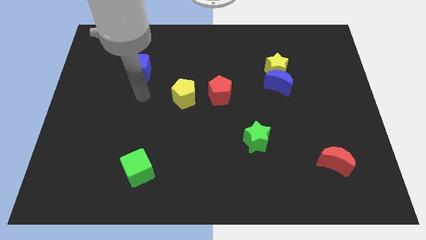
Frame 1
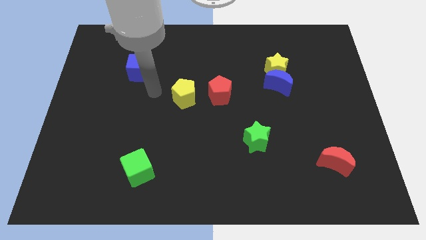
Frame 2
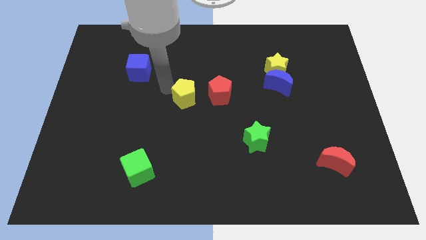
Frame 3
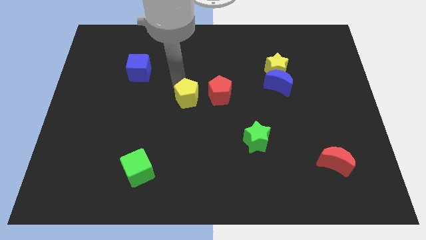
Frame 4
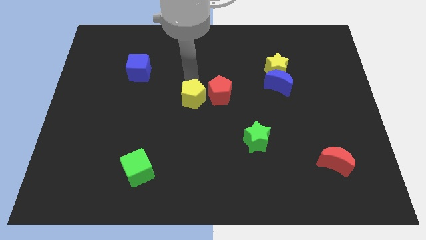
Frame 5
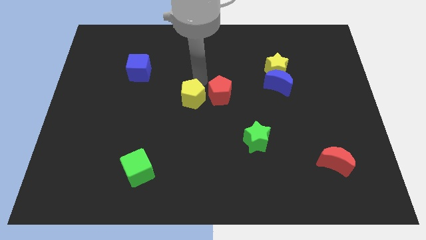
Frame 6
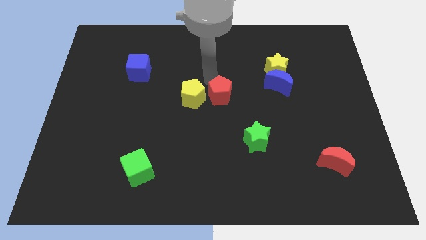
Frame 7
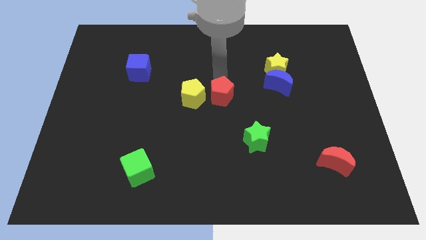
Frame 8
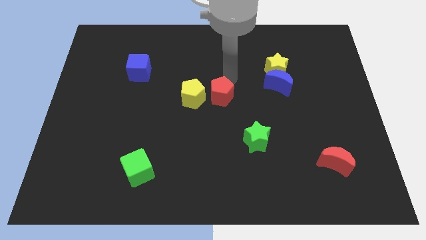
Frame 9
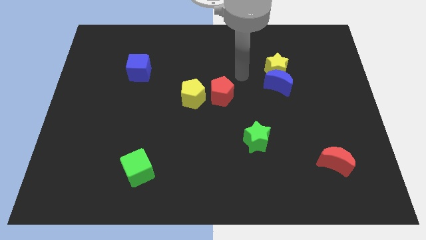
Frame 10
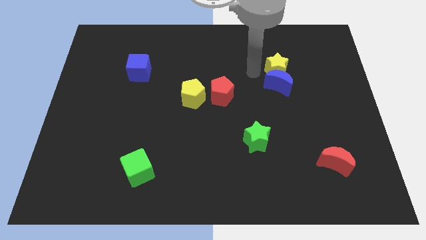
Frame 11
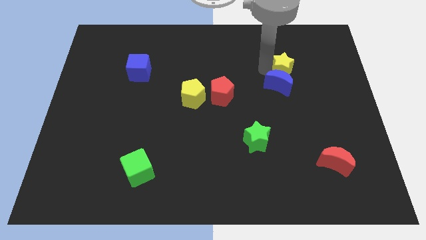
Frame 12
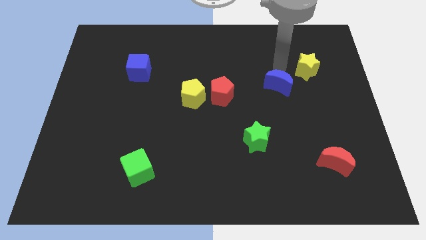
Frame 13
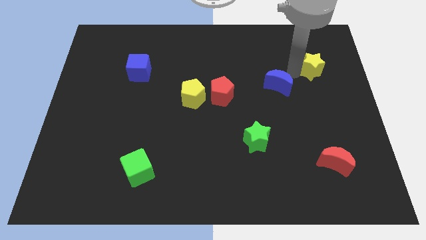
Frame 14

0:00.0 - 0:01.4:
pull the blue moon apart from the yellow star

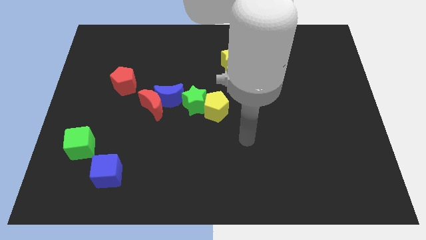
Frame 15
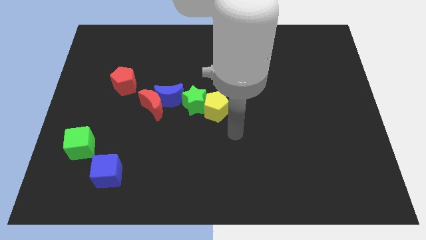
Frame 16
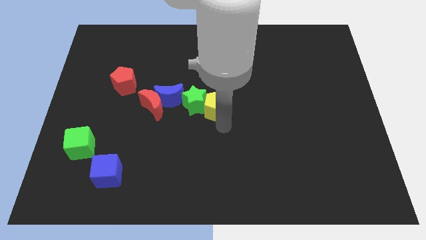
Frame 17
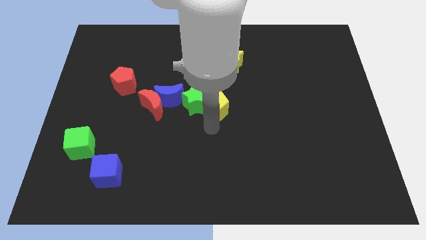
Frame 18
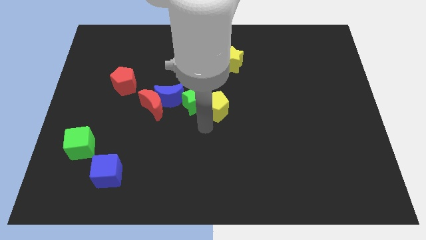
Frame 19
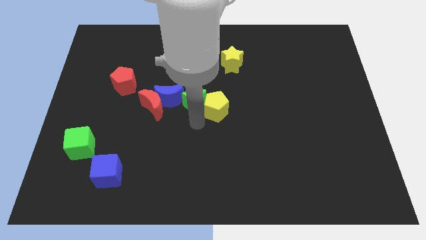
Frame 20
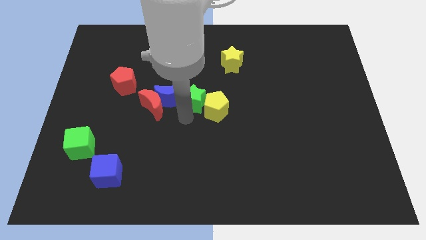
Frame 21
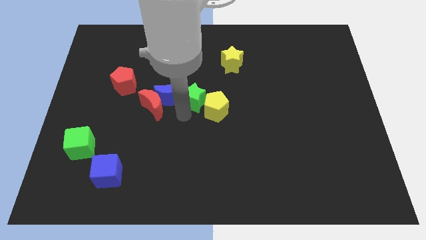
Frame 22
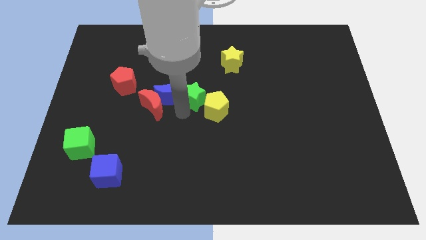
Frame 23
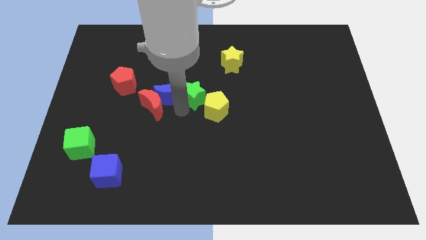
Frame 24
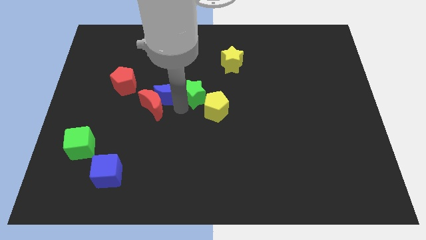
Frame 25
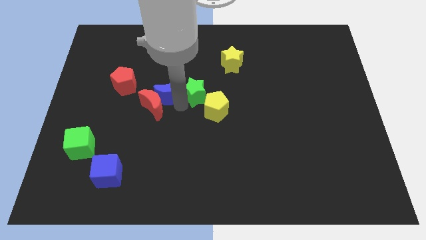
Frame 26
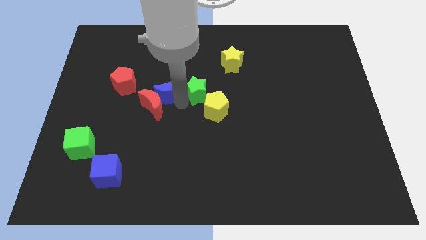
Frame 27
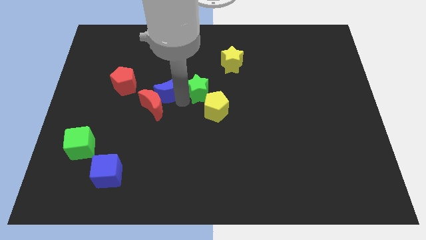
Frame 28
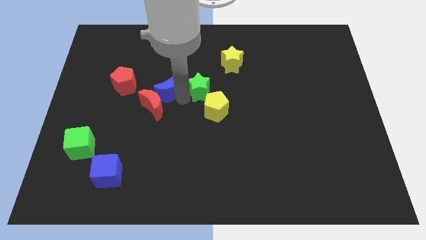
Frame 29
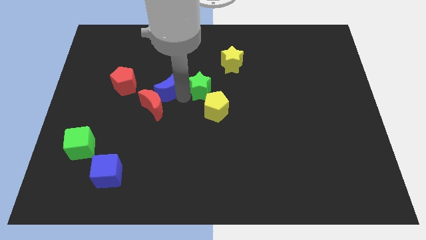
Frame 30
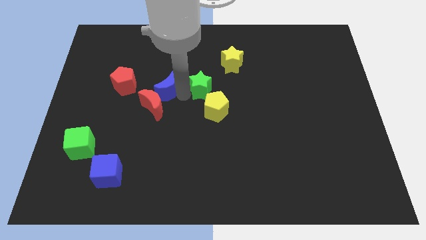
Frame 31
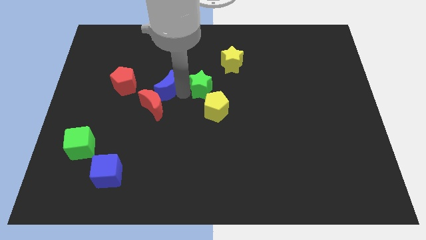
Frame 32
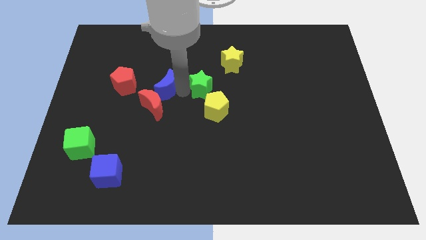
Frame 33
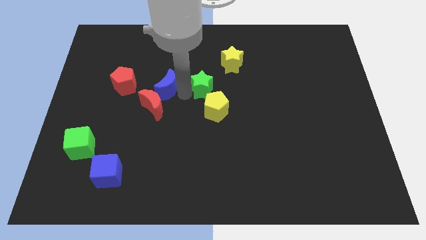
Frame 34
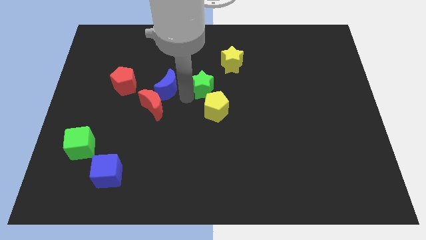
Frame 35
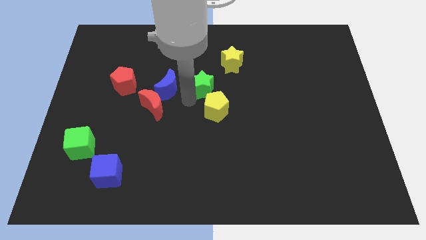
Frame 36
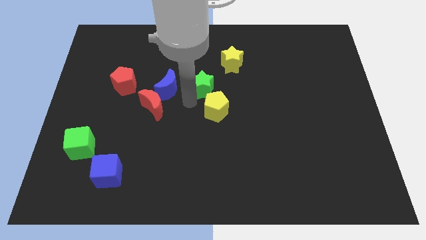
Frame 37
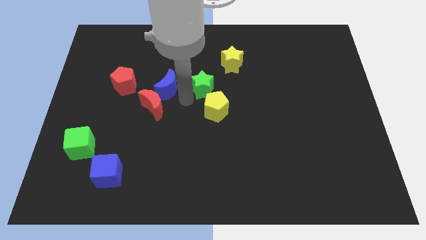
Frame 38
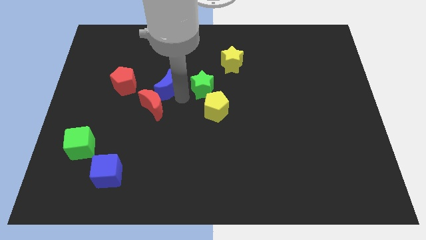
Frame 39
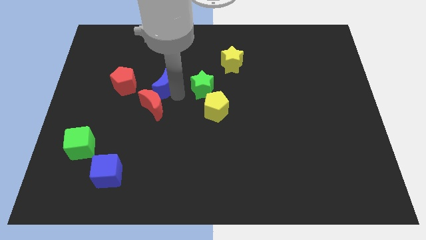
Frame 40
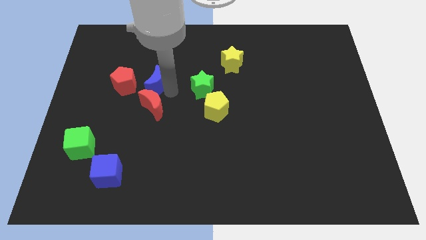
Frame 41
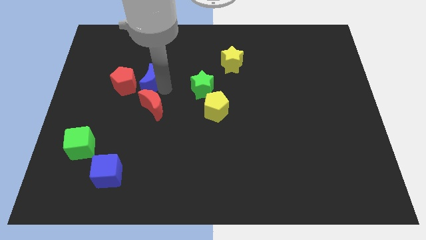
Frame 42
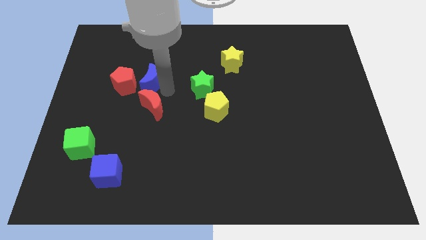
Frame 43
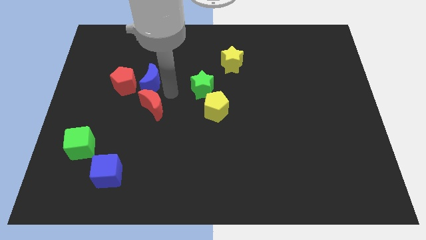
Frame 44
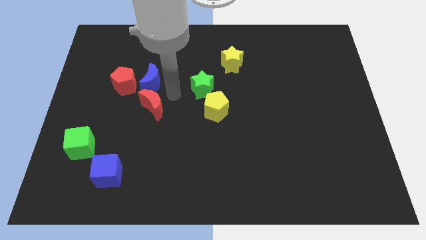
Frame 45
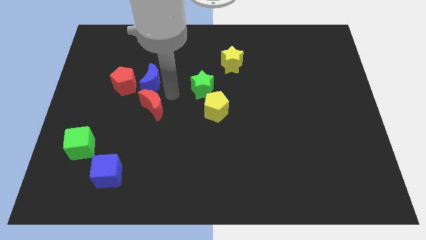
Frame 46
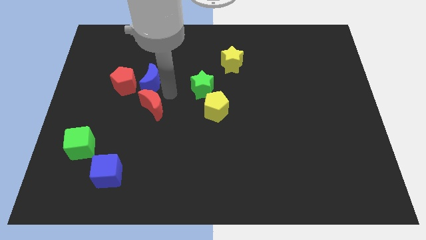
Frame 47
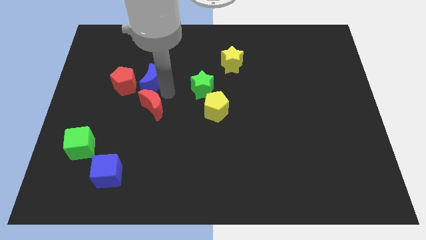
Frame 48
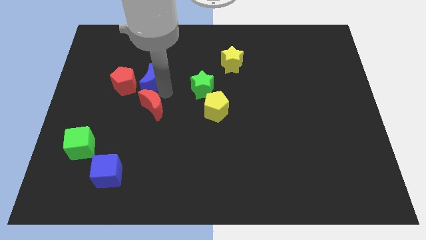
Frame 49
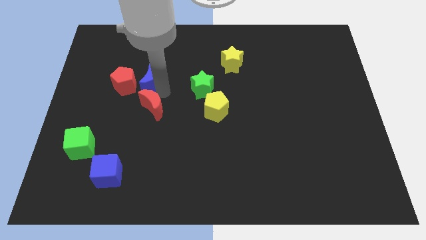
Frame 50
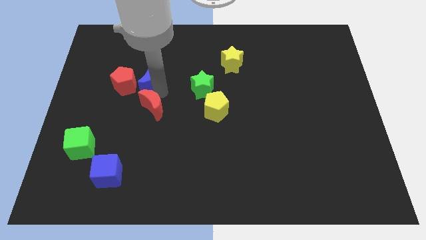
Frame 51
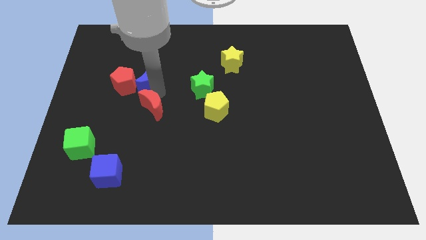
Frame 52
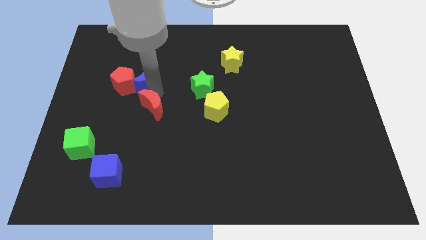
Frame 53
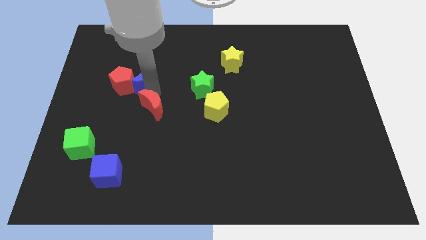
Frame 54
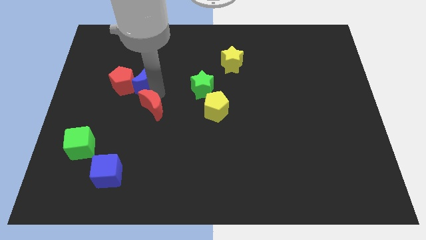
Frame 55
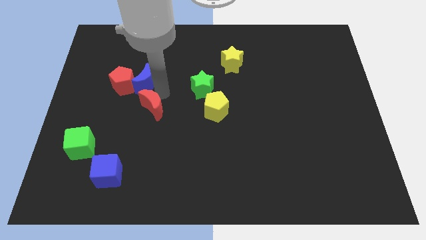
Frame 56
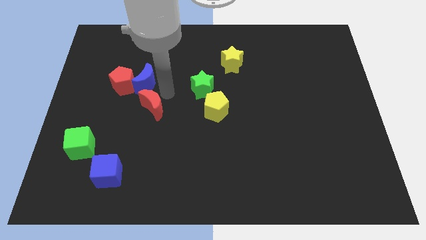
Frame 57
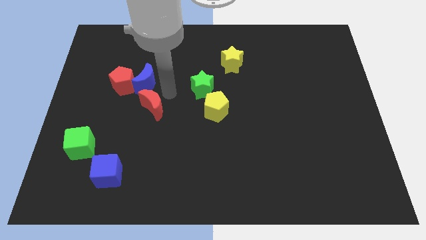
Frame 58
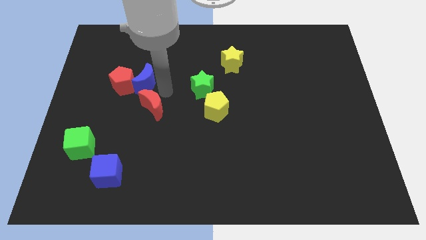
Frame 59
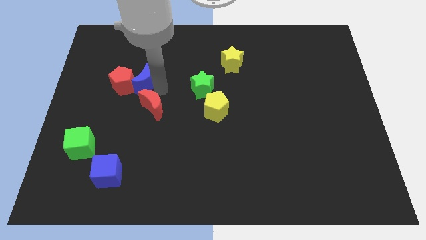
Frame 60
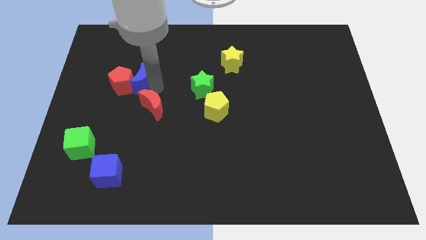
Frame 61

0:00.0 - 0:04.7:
separate the blue moon from the red moon and green star

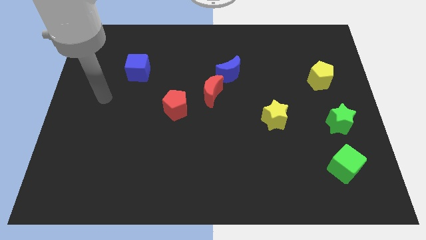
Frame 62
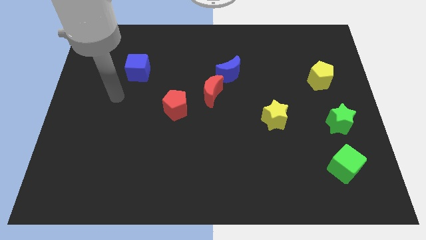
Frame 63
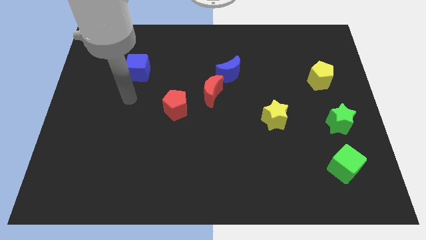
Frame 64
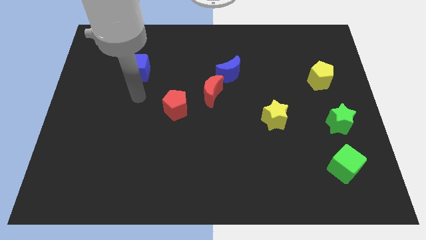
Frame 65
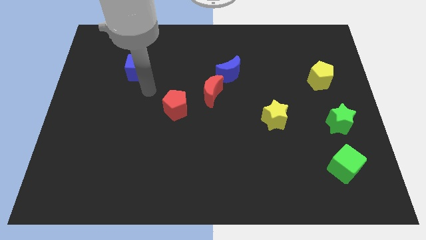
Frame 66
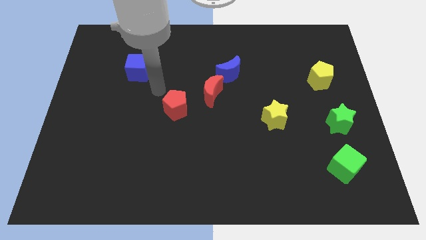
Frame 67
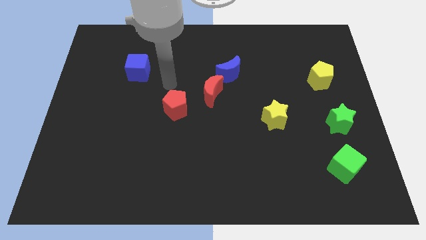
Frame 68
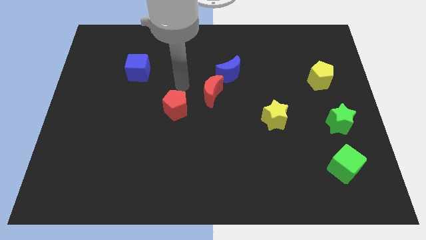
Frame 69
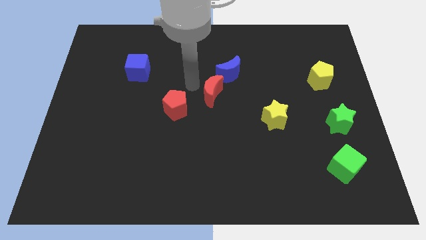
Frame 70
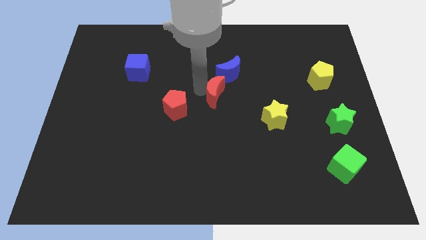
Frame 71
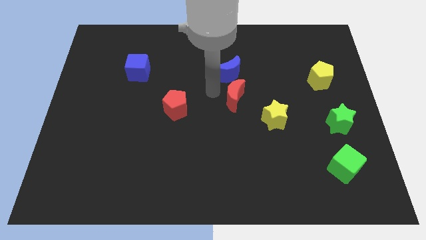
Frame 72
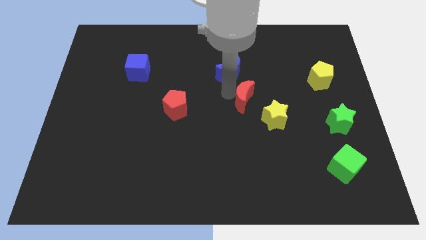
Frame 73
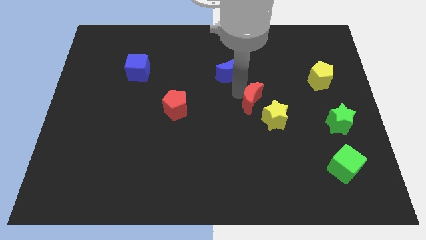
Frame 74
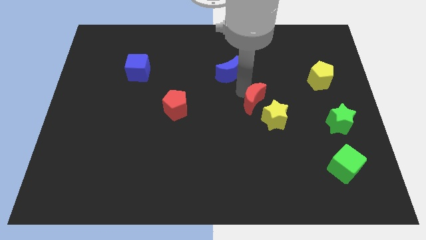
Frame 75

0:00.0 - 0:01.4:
pull the blue moon apart from the red moon

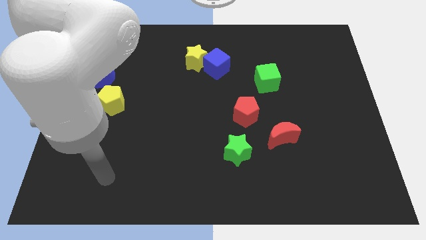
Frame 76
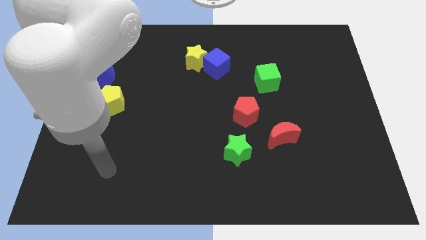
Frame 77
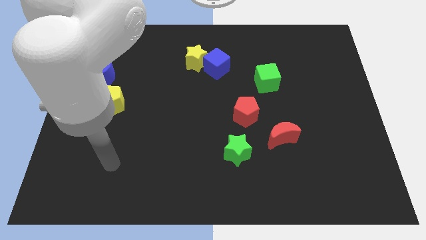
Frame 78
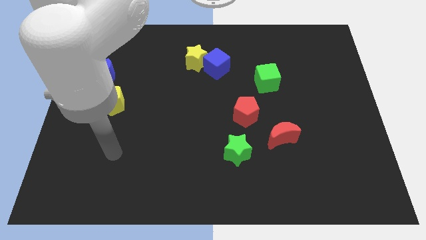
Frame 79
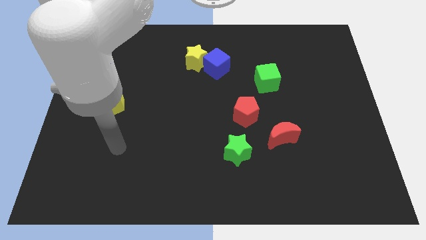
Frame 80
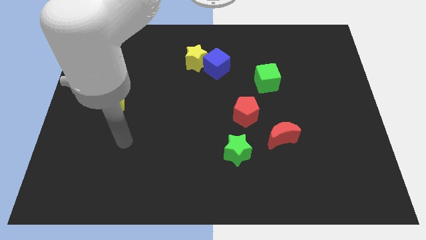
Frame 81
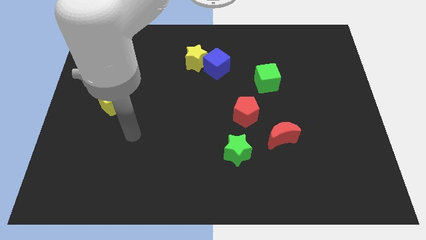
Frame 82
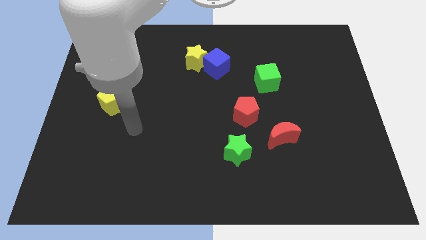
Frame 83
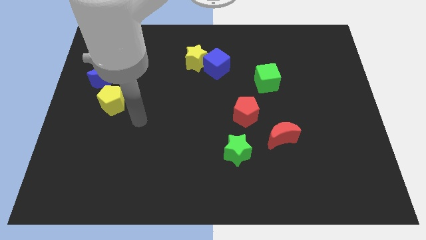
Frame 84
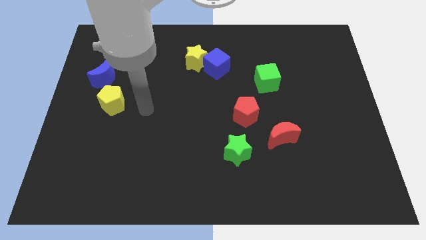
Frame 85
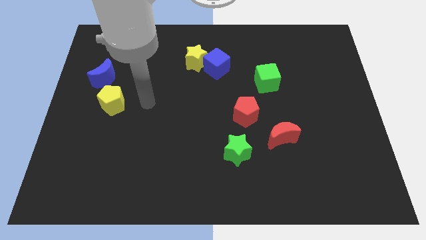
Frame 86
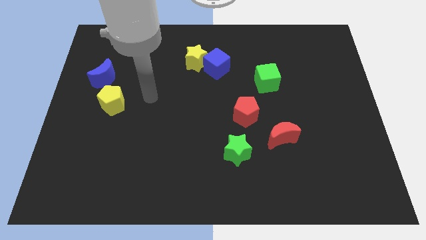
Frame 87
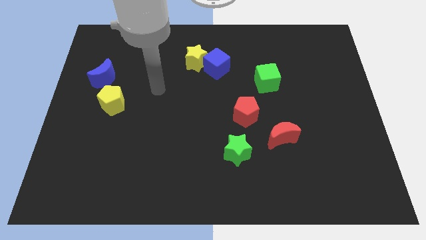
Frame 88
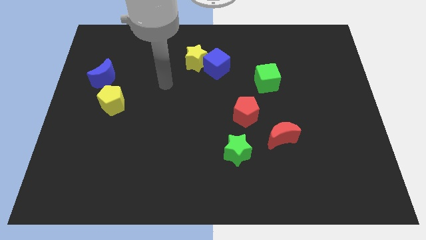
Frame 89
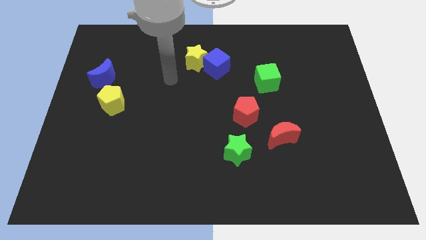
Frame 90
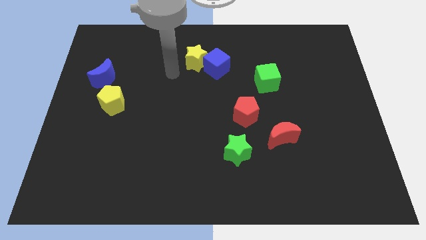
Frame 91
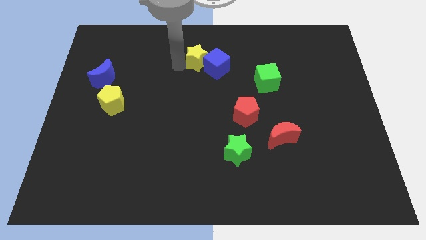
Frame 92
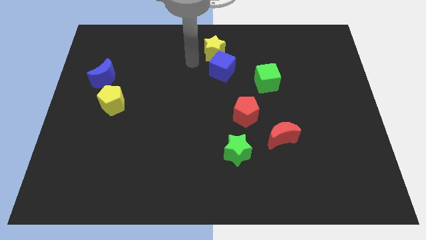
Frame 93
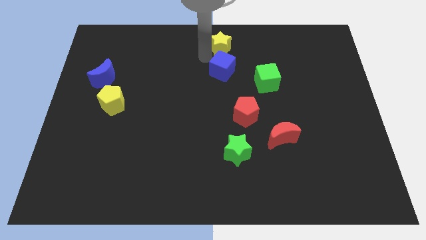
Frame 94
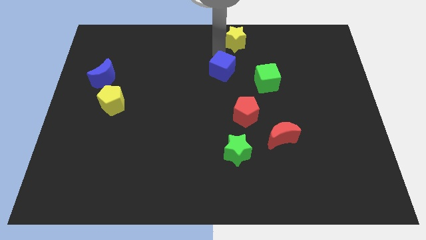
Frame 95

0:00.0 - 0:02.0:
move the blue cube away from the yellow star

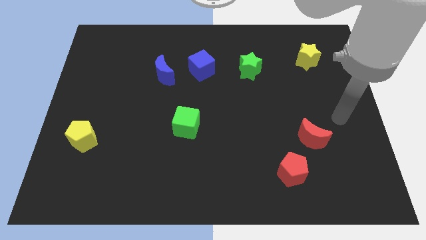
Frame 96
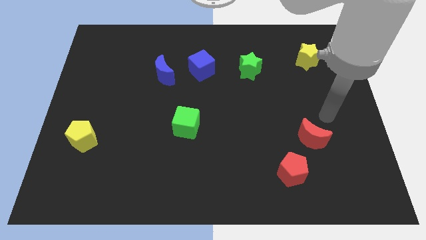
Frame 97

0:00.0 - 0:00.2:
pull the blue moon apart from the blue cube
